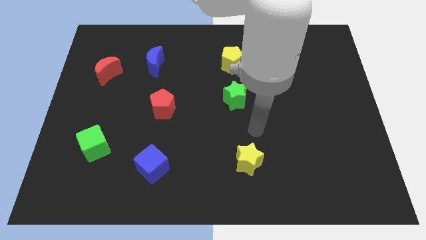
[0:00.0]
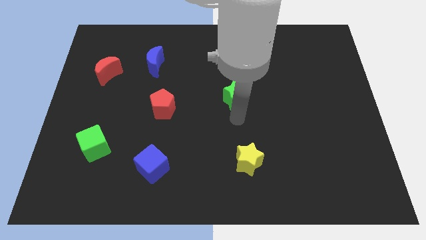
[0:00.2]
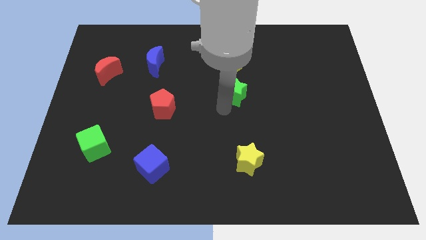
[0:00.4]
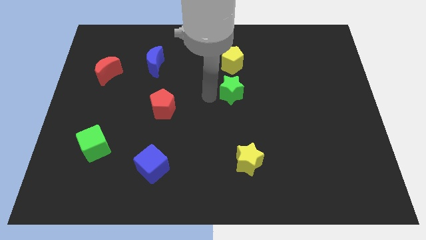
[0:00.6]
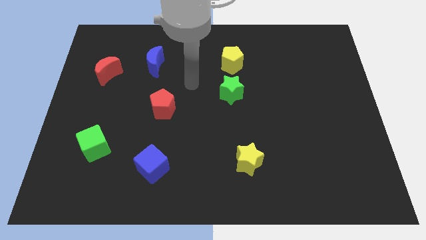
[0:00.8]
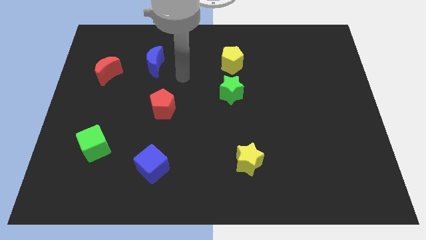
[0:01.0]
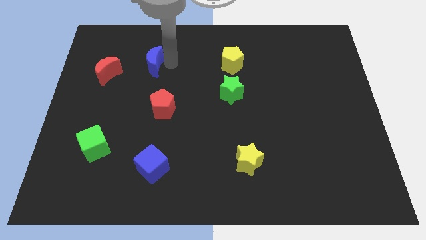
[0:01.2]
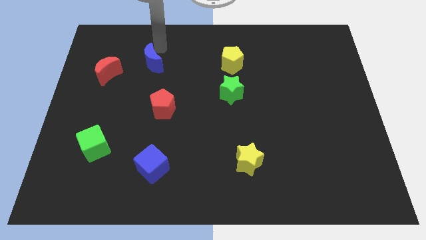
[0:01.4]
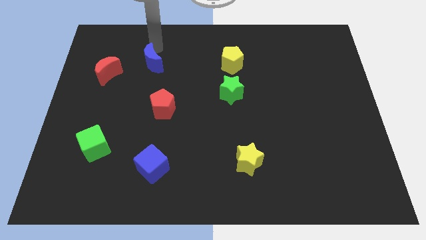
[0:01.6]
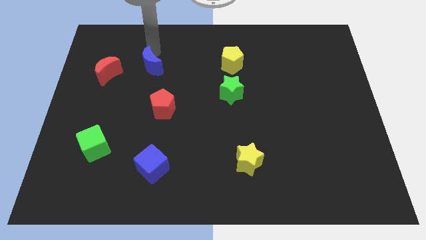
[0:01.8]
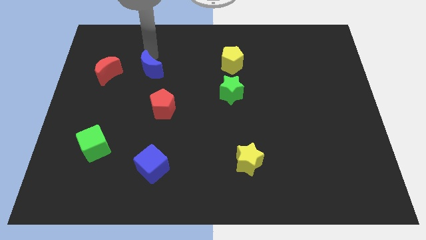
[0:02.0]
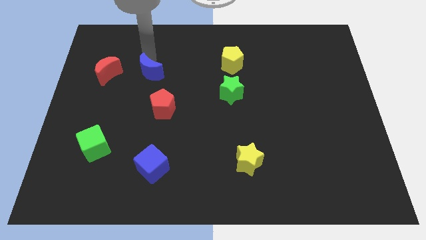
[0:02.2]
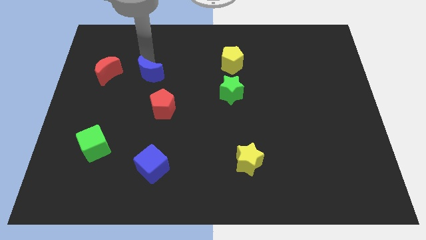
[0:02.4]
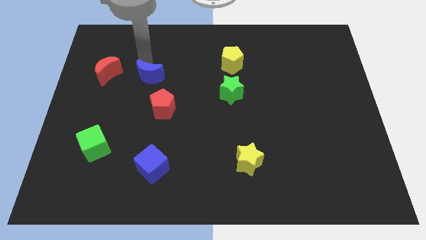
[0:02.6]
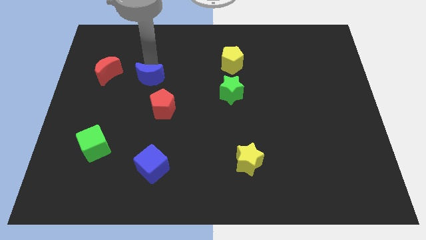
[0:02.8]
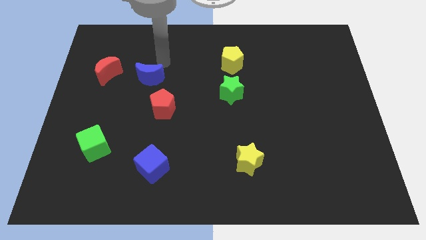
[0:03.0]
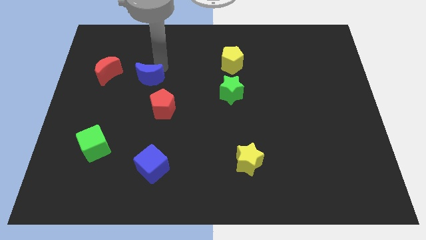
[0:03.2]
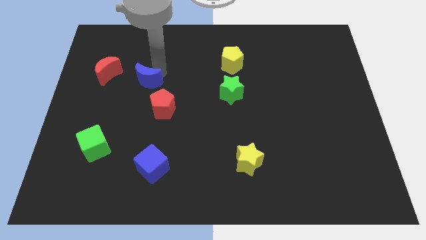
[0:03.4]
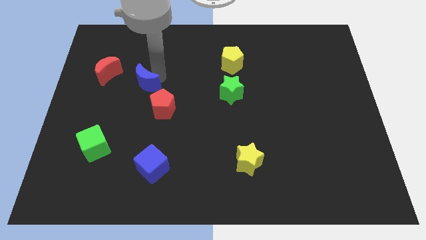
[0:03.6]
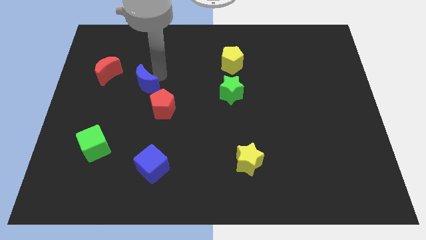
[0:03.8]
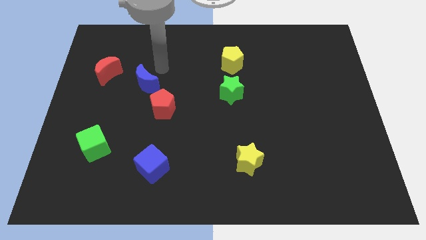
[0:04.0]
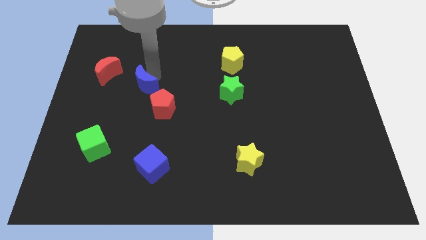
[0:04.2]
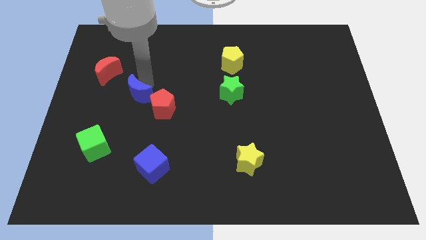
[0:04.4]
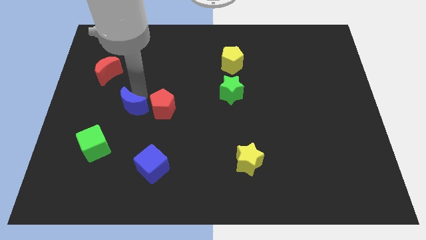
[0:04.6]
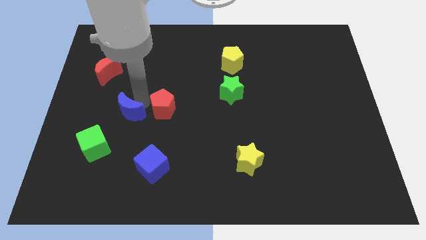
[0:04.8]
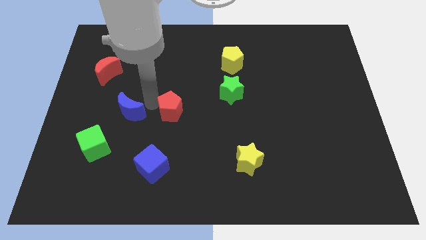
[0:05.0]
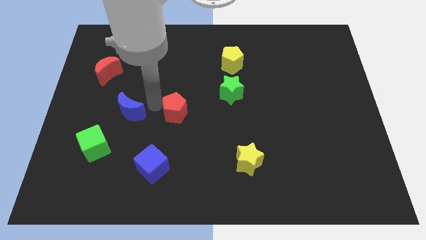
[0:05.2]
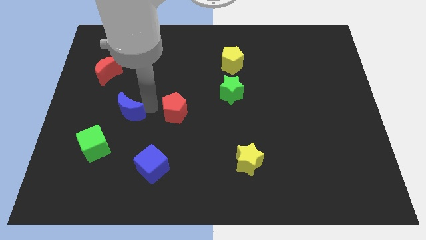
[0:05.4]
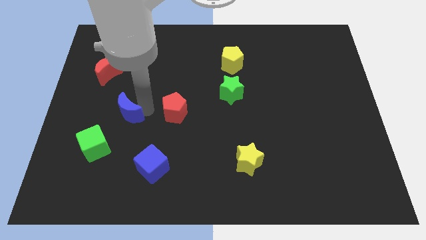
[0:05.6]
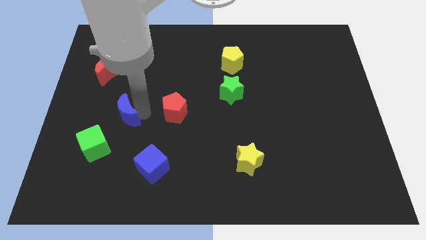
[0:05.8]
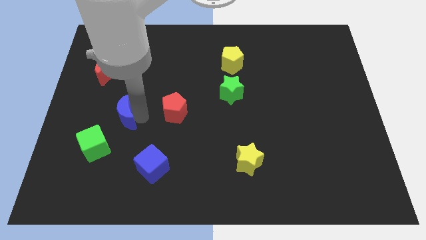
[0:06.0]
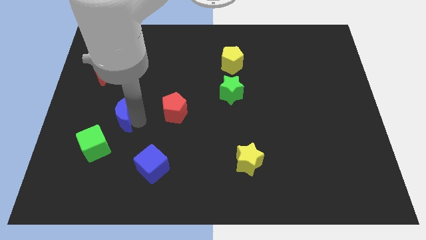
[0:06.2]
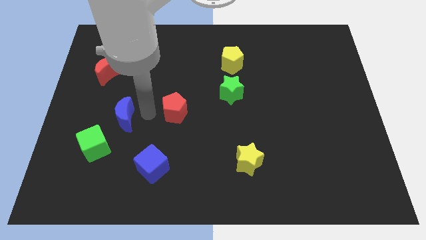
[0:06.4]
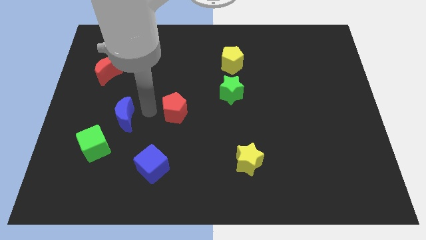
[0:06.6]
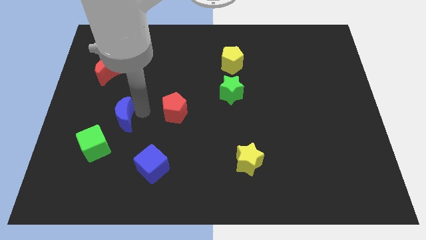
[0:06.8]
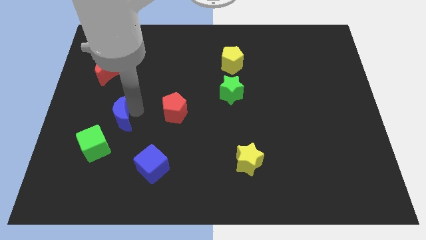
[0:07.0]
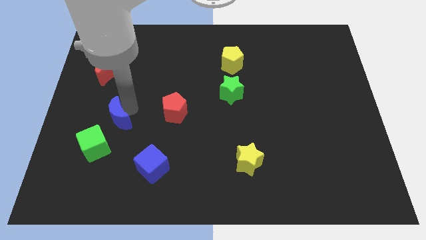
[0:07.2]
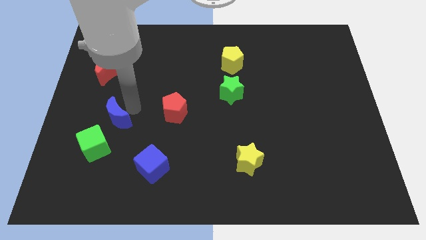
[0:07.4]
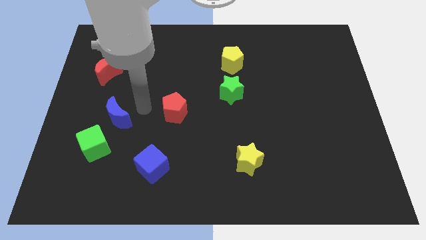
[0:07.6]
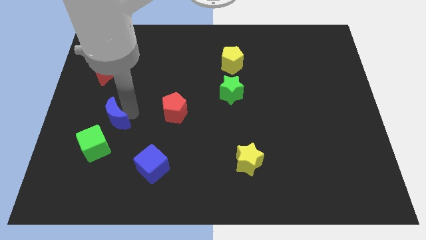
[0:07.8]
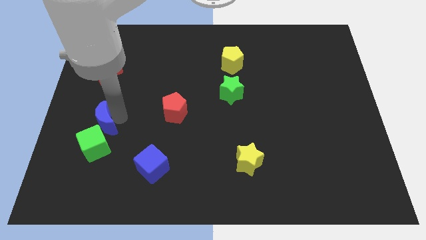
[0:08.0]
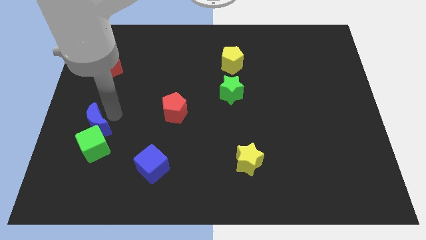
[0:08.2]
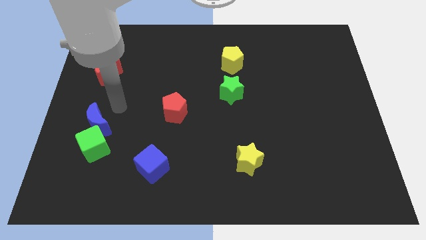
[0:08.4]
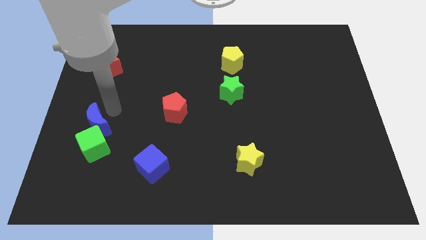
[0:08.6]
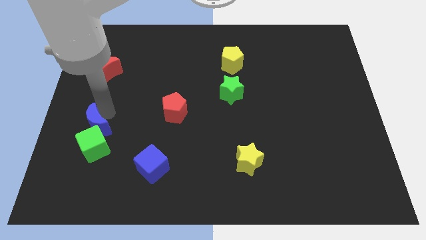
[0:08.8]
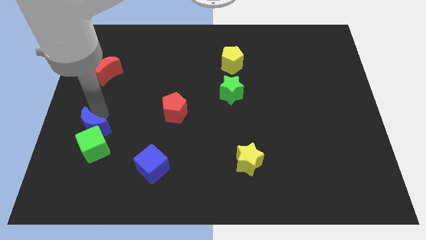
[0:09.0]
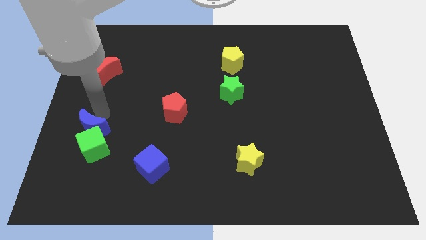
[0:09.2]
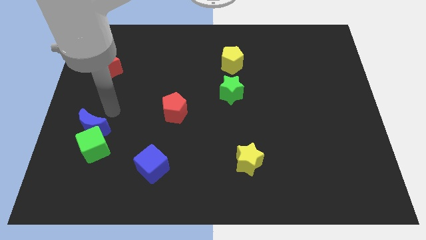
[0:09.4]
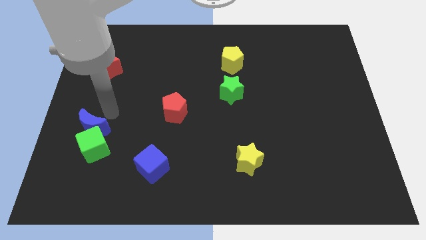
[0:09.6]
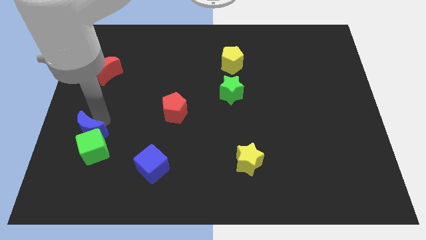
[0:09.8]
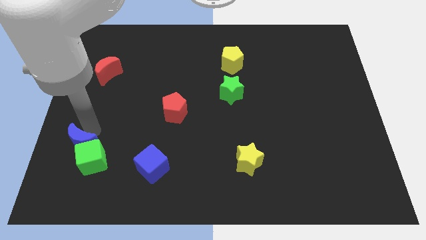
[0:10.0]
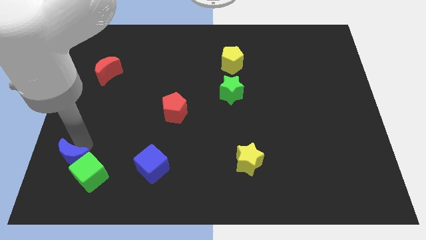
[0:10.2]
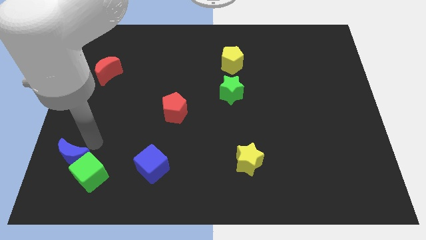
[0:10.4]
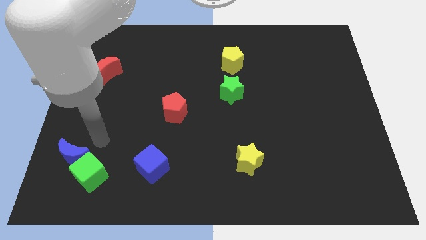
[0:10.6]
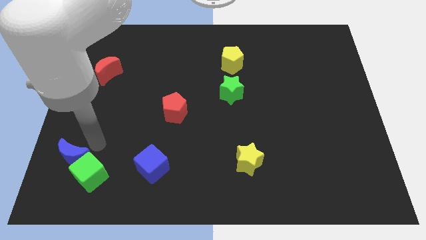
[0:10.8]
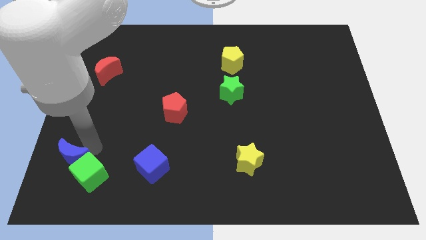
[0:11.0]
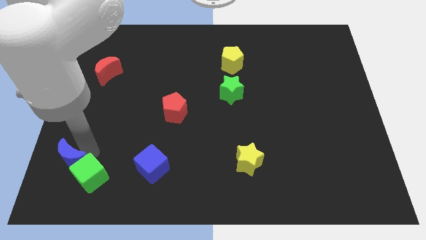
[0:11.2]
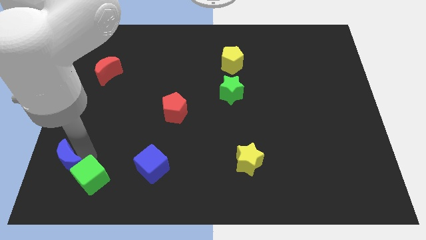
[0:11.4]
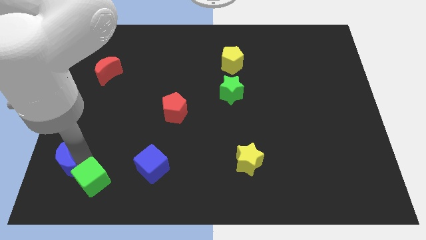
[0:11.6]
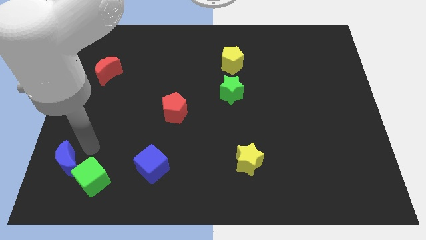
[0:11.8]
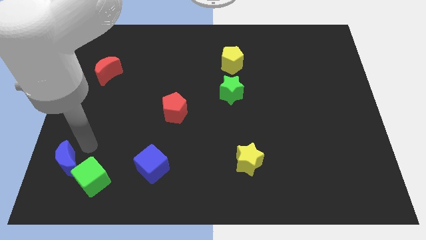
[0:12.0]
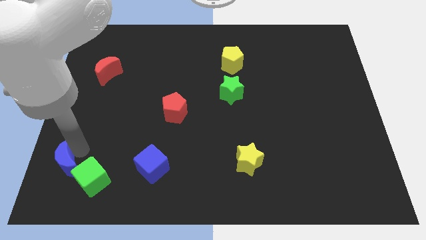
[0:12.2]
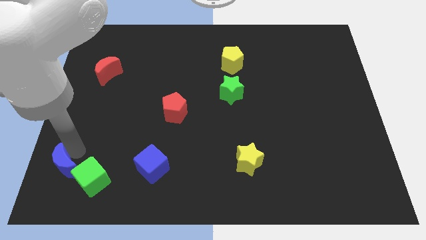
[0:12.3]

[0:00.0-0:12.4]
push the blue moon to the lower left corner

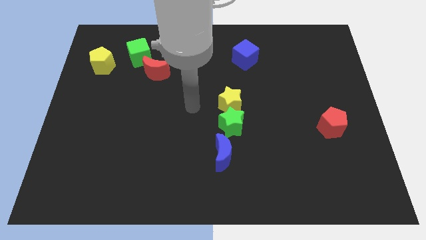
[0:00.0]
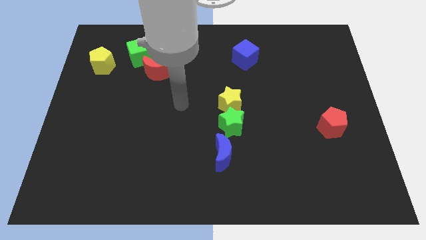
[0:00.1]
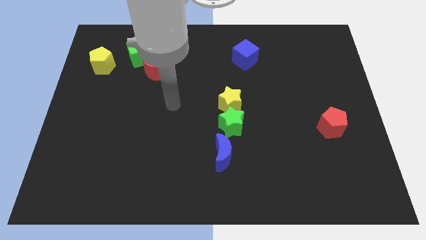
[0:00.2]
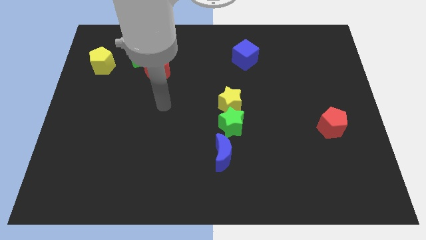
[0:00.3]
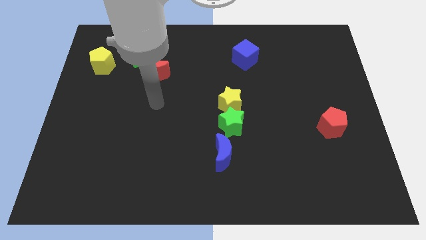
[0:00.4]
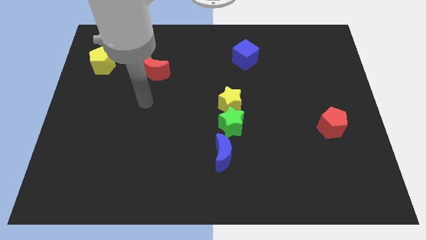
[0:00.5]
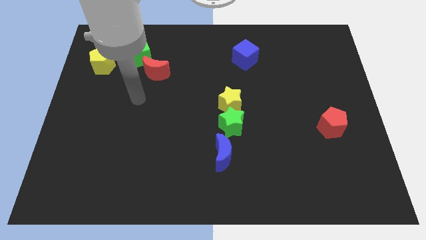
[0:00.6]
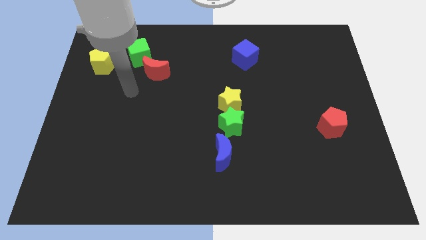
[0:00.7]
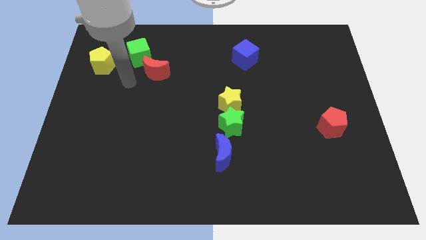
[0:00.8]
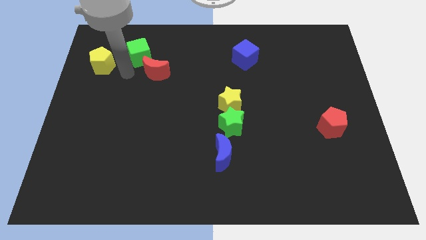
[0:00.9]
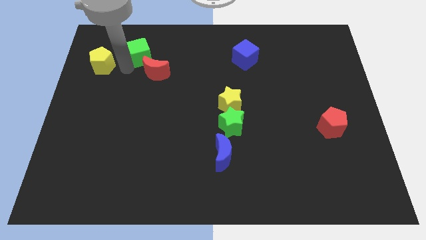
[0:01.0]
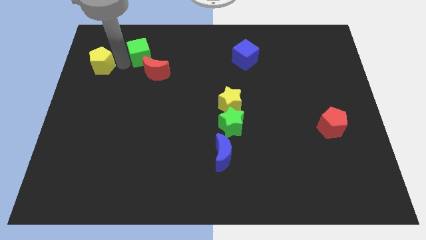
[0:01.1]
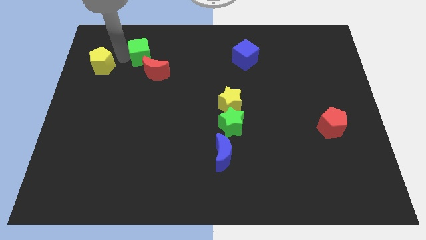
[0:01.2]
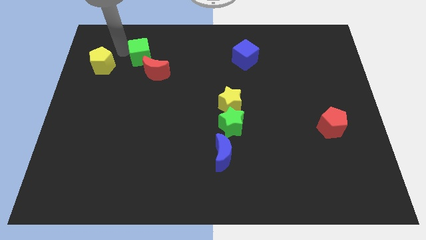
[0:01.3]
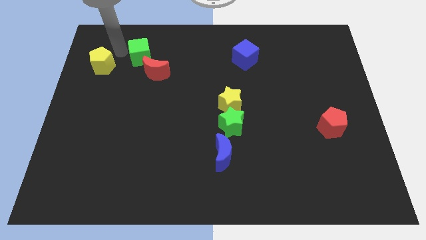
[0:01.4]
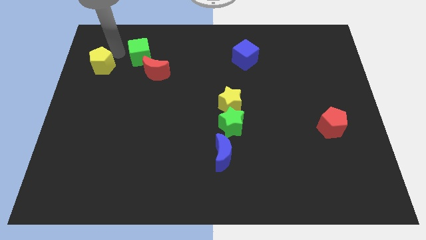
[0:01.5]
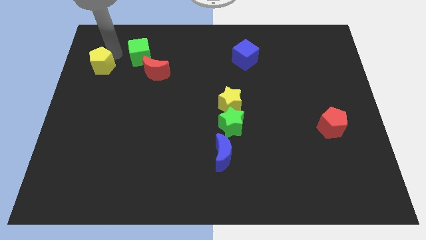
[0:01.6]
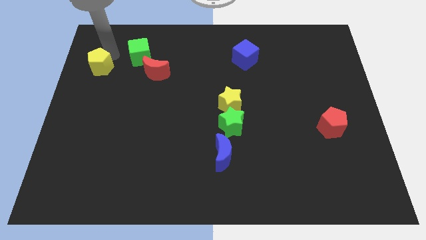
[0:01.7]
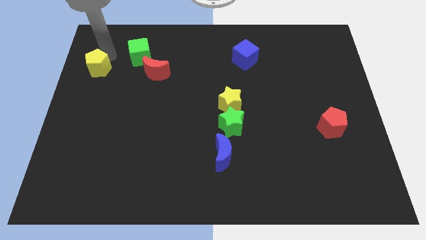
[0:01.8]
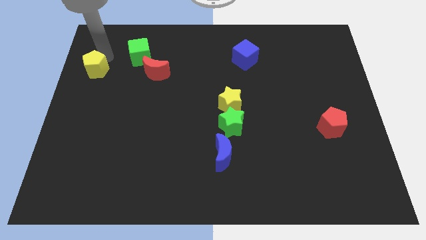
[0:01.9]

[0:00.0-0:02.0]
push the yellow pentagon to the left side
